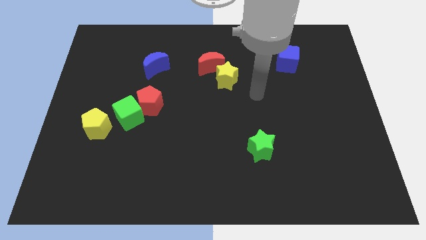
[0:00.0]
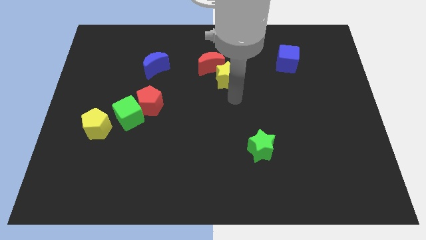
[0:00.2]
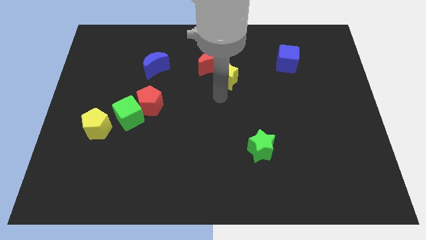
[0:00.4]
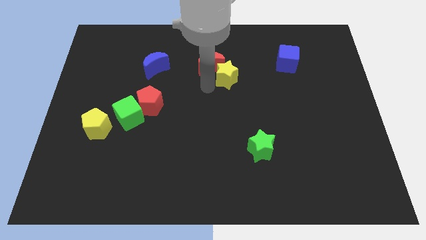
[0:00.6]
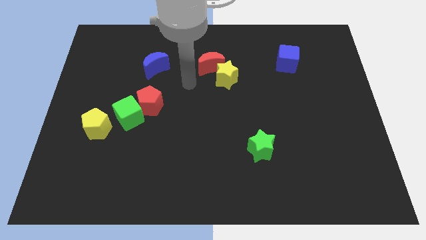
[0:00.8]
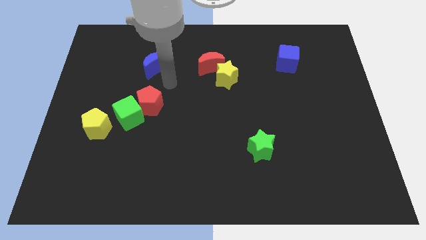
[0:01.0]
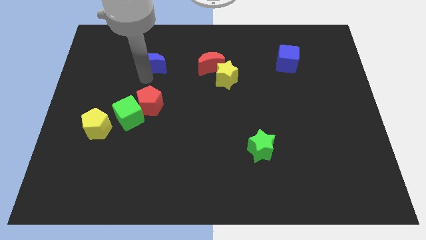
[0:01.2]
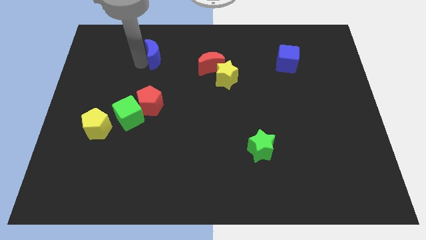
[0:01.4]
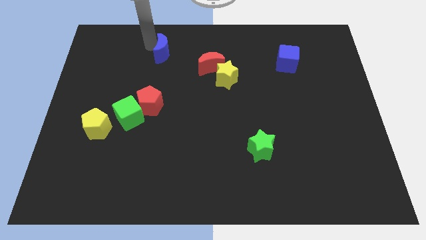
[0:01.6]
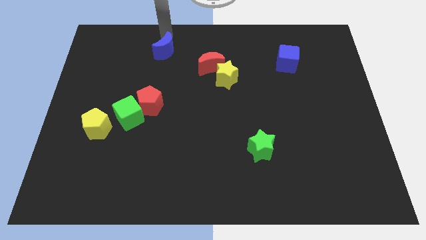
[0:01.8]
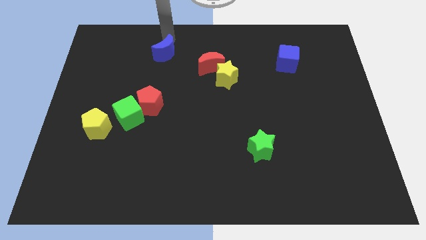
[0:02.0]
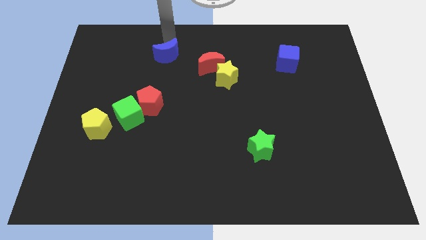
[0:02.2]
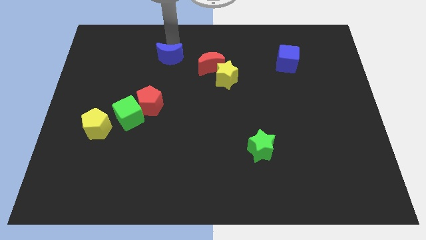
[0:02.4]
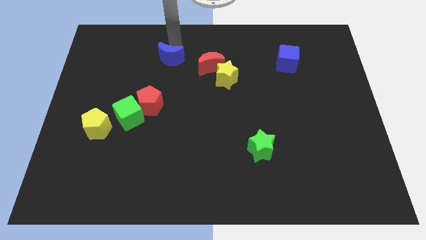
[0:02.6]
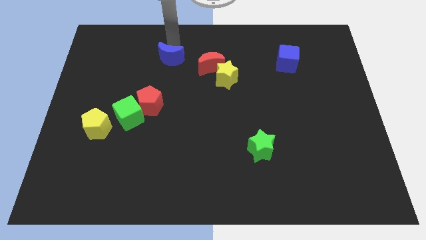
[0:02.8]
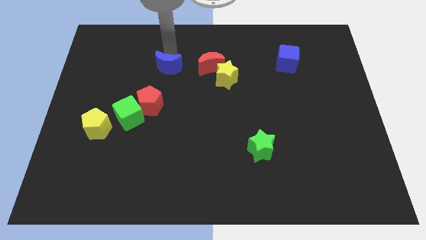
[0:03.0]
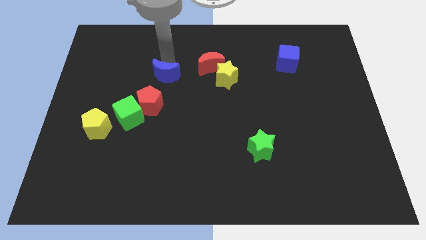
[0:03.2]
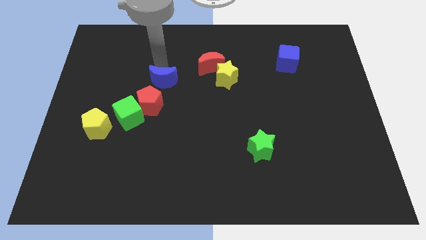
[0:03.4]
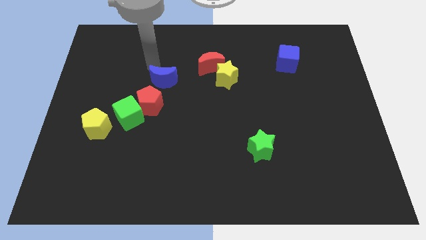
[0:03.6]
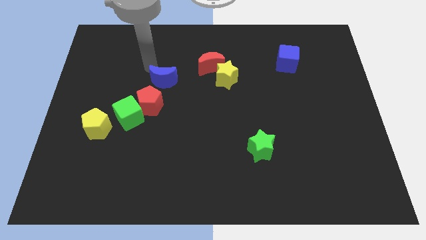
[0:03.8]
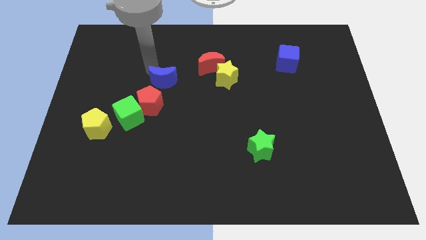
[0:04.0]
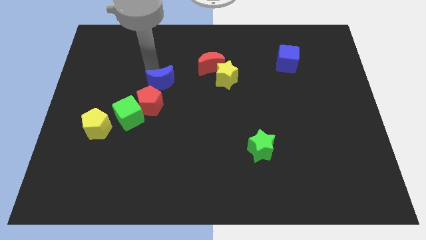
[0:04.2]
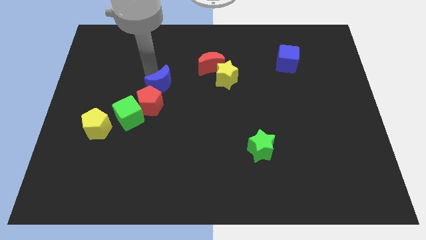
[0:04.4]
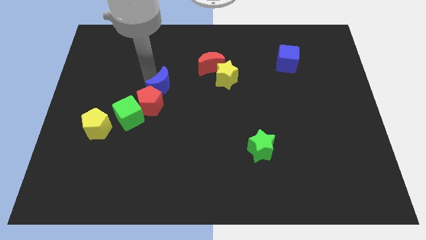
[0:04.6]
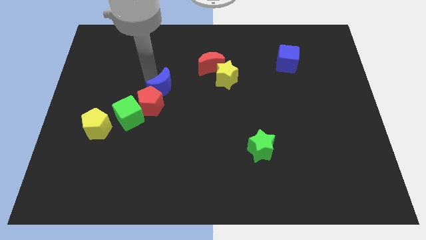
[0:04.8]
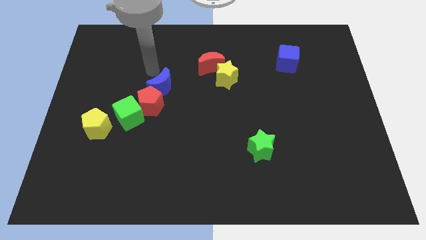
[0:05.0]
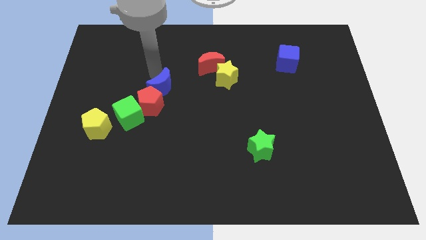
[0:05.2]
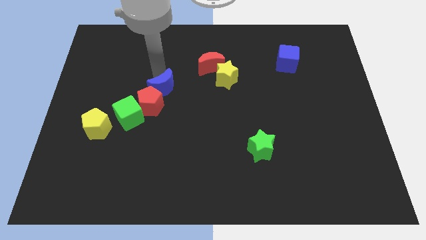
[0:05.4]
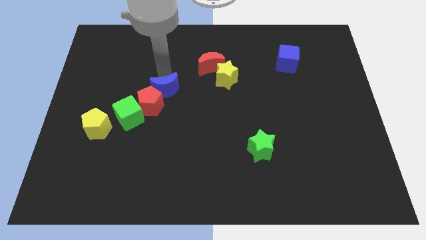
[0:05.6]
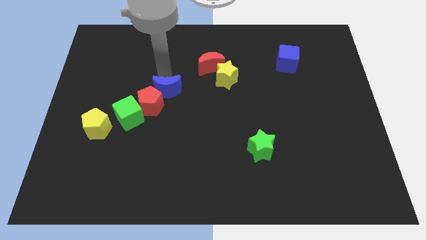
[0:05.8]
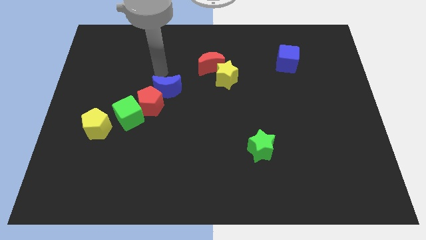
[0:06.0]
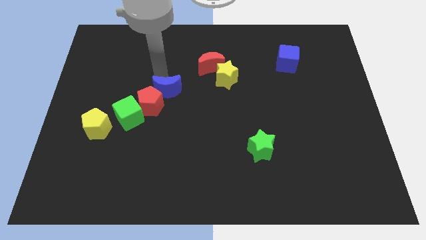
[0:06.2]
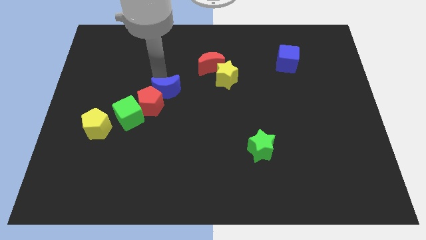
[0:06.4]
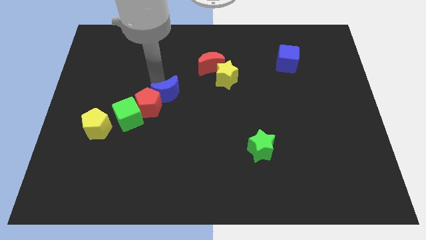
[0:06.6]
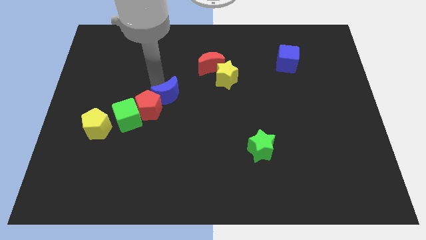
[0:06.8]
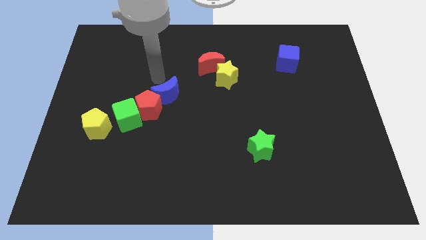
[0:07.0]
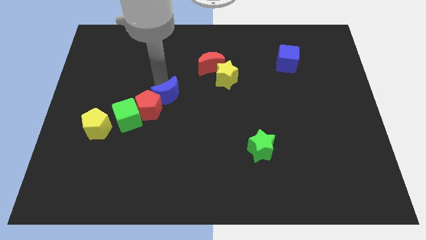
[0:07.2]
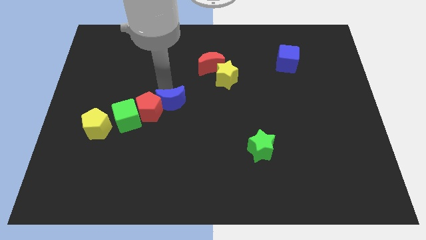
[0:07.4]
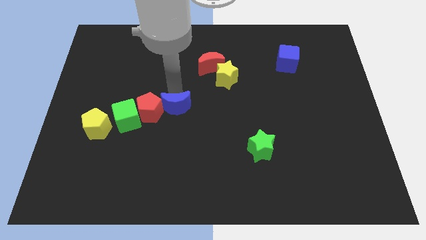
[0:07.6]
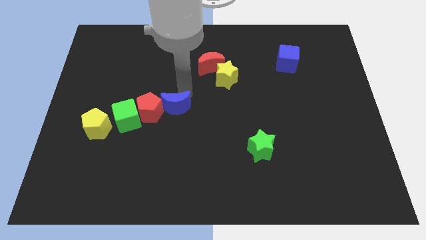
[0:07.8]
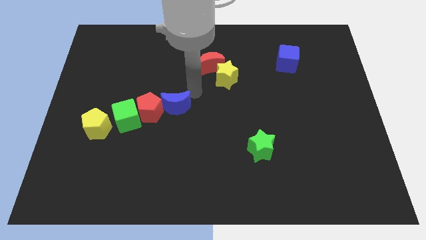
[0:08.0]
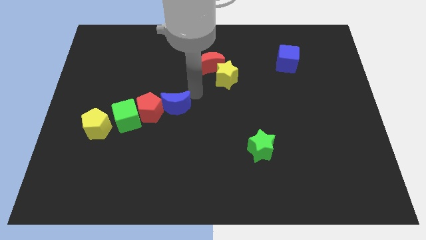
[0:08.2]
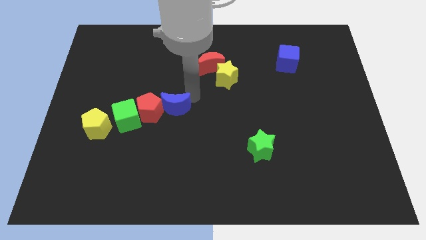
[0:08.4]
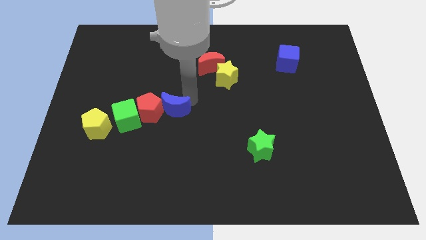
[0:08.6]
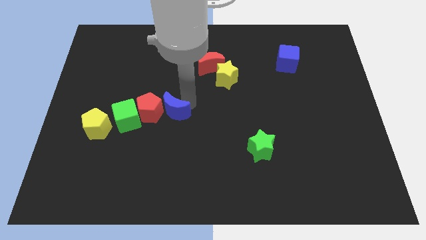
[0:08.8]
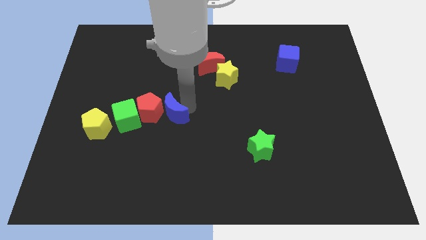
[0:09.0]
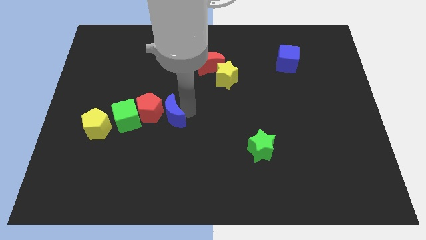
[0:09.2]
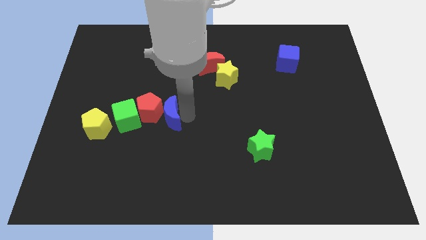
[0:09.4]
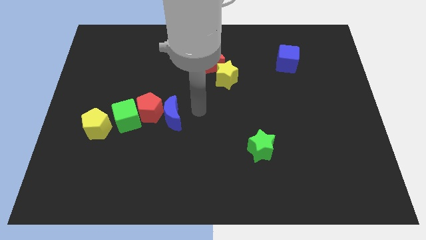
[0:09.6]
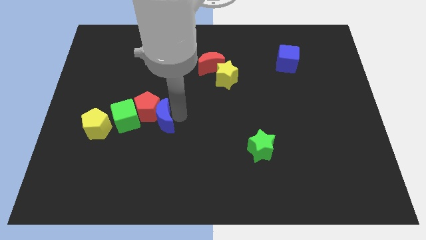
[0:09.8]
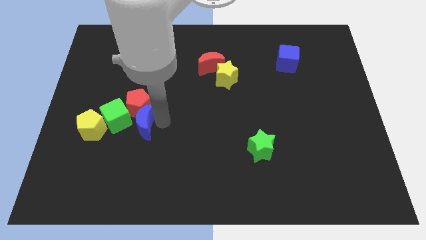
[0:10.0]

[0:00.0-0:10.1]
move the blue moon to the bottom left of the red pentagon

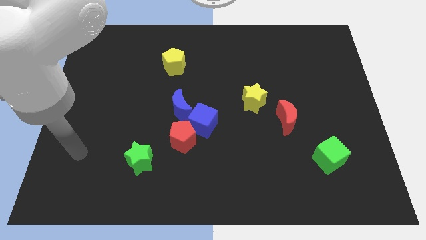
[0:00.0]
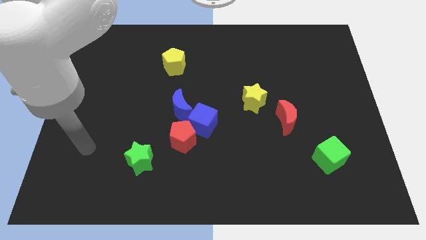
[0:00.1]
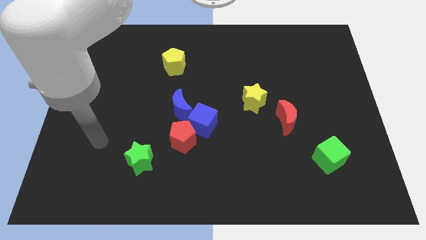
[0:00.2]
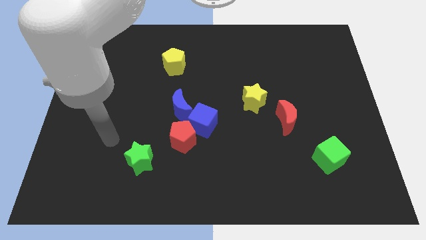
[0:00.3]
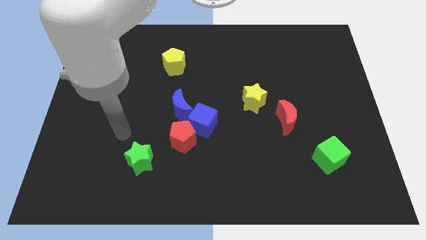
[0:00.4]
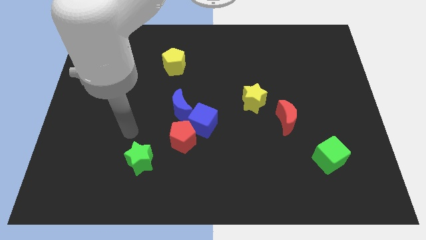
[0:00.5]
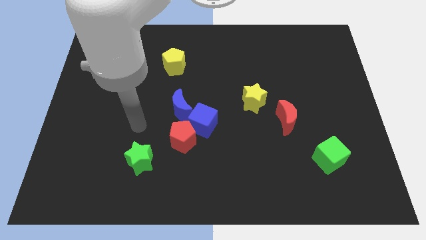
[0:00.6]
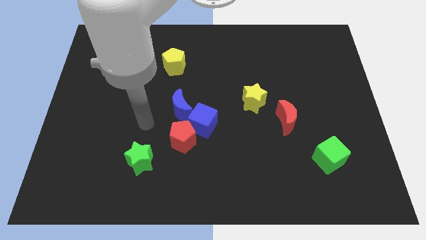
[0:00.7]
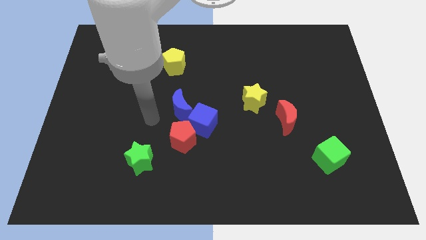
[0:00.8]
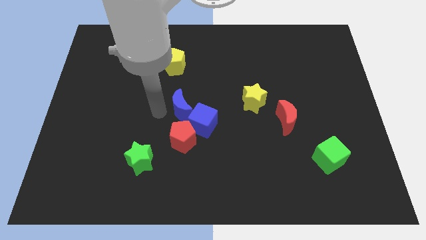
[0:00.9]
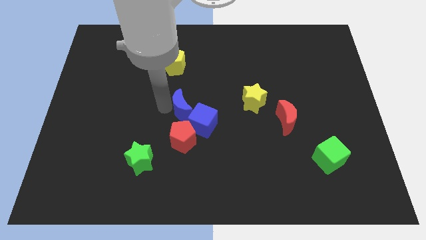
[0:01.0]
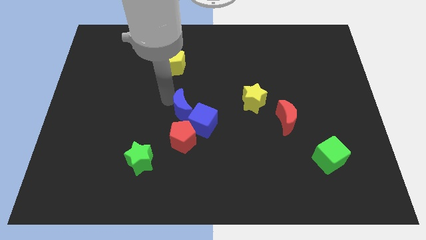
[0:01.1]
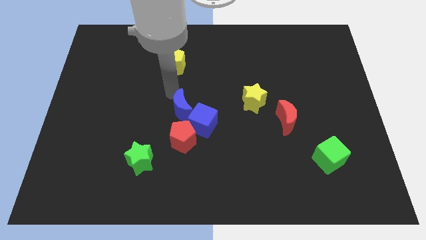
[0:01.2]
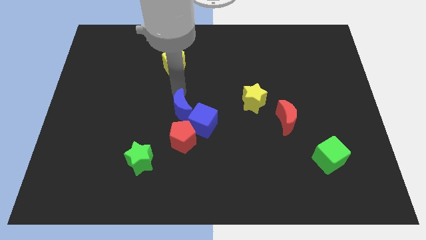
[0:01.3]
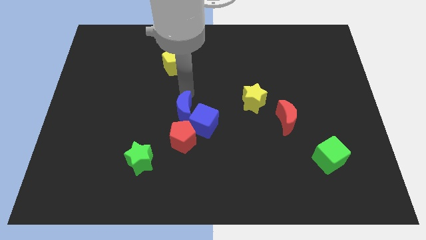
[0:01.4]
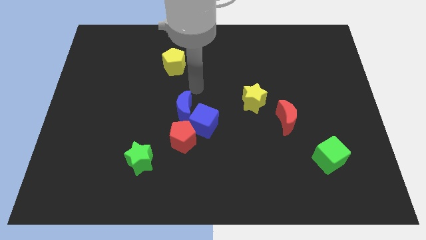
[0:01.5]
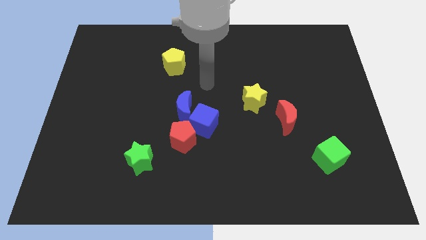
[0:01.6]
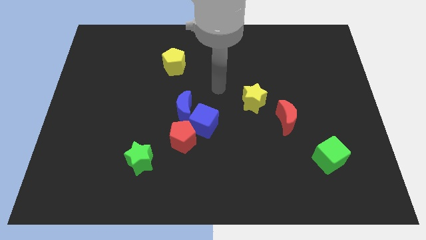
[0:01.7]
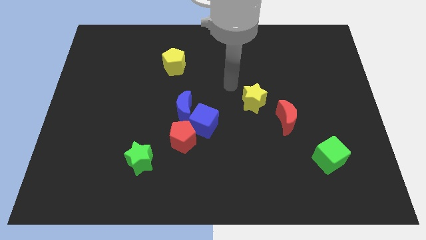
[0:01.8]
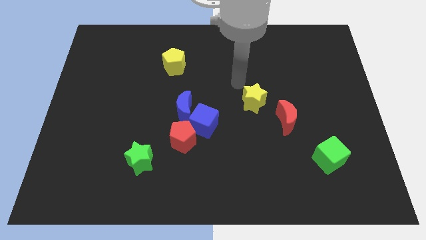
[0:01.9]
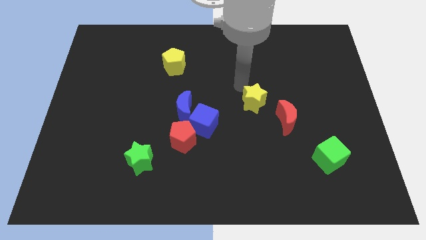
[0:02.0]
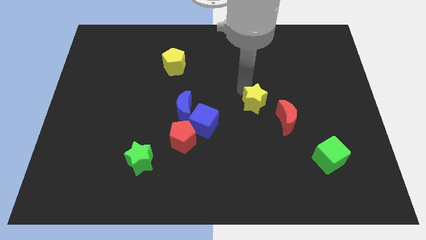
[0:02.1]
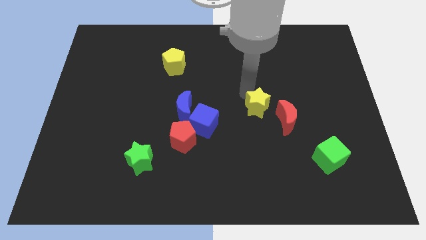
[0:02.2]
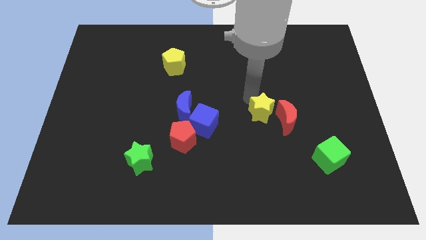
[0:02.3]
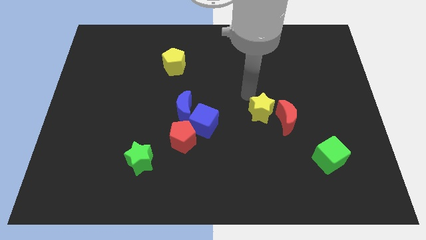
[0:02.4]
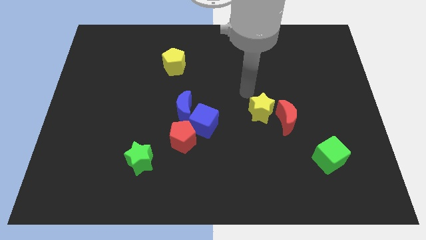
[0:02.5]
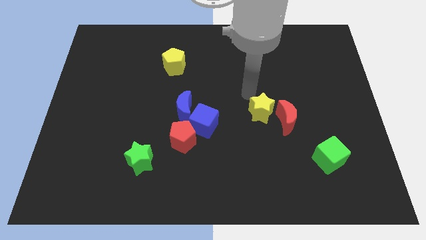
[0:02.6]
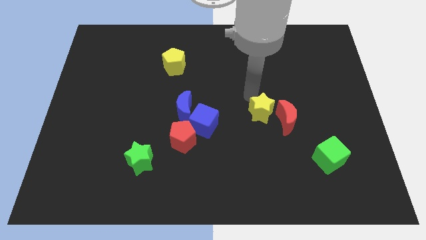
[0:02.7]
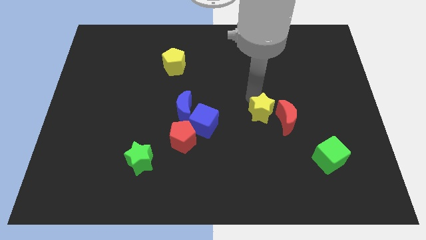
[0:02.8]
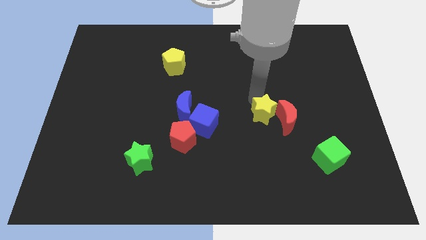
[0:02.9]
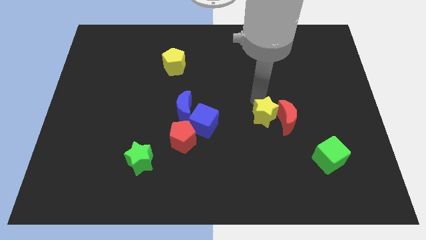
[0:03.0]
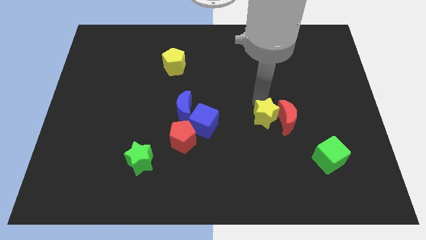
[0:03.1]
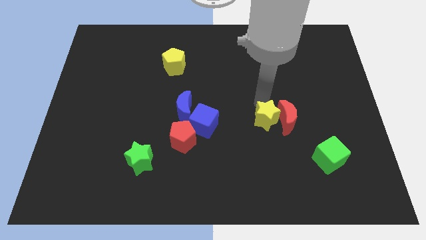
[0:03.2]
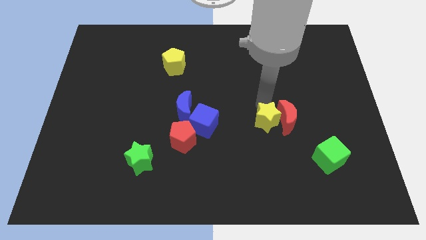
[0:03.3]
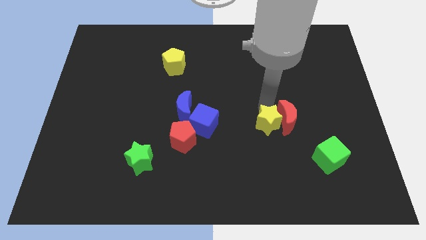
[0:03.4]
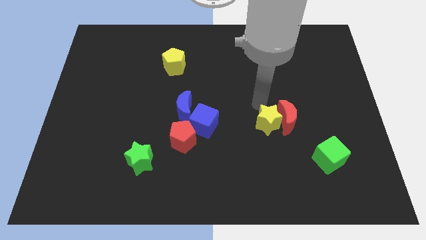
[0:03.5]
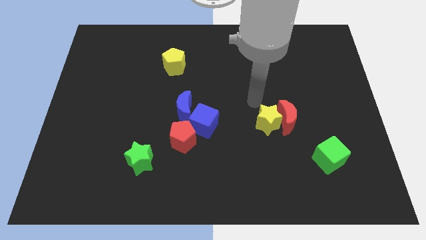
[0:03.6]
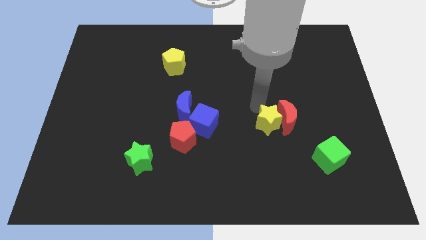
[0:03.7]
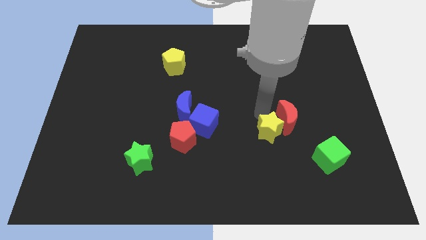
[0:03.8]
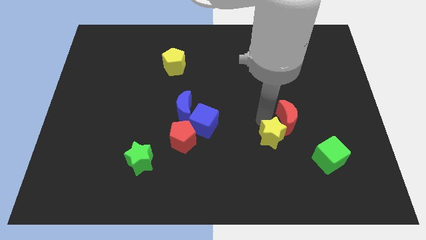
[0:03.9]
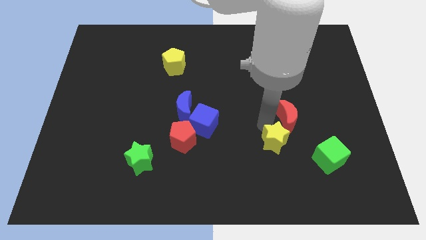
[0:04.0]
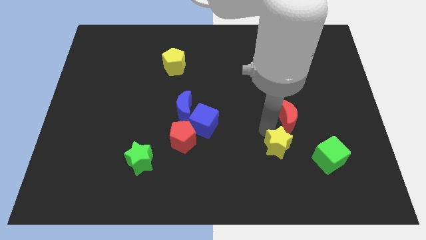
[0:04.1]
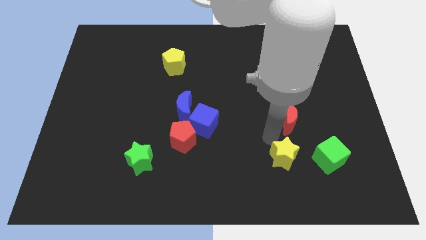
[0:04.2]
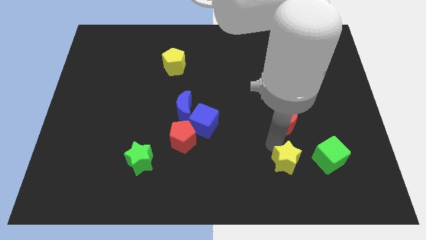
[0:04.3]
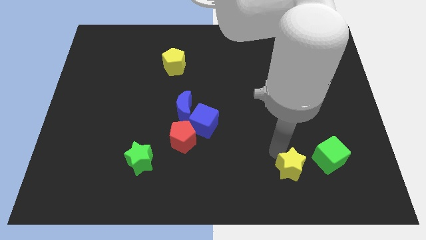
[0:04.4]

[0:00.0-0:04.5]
push the yellow star to the bottom left of the green cube
